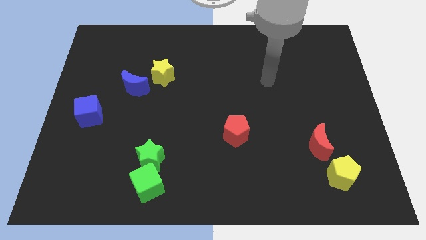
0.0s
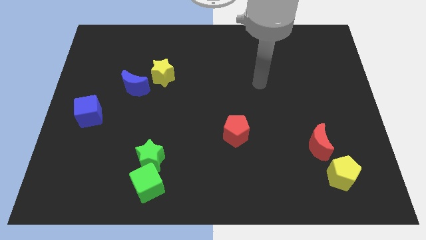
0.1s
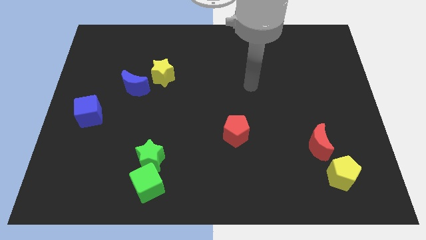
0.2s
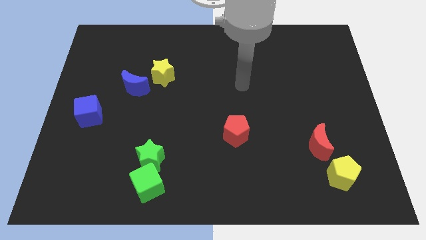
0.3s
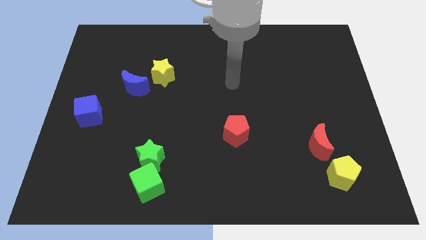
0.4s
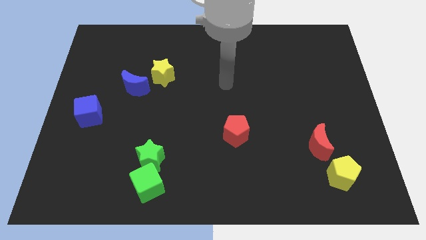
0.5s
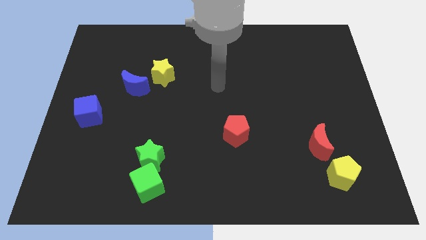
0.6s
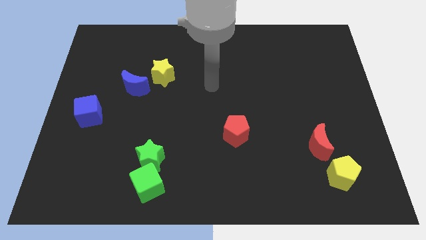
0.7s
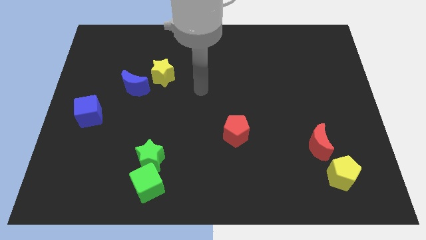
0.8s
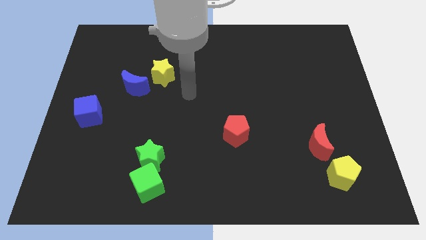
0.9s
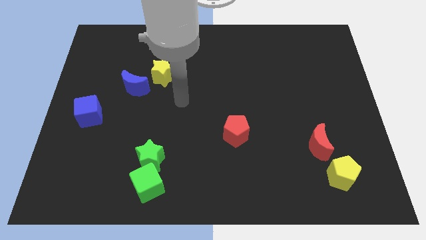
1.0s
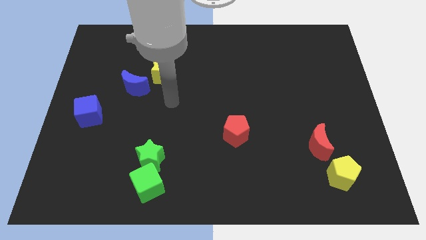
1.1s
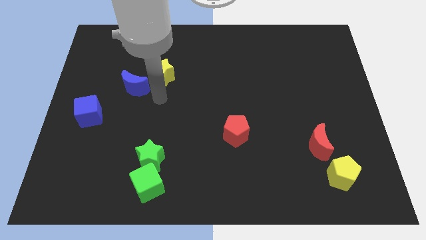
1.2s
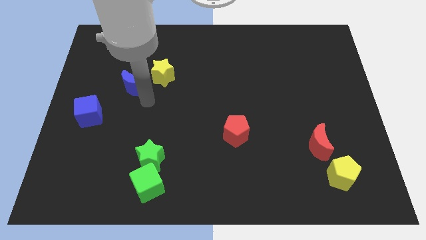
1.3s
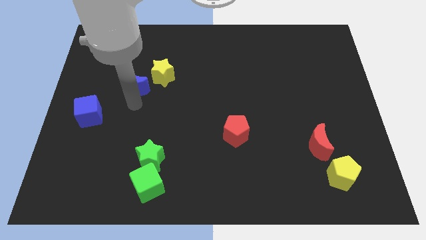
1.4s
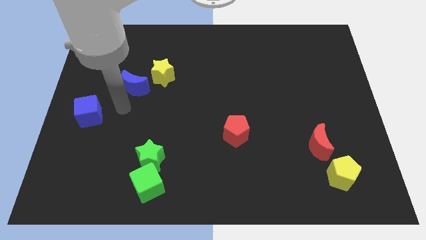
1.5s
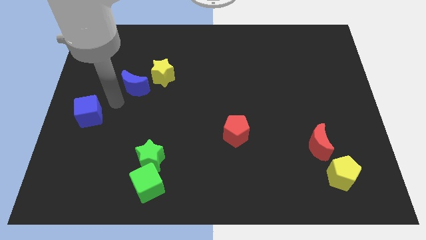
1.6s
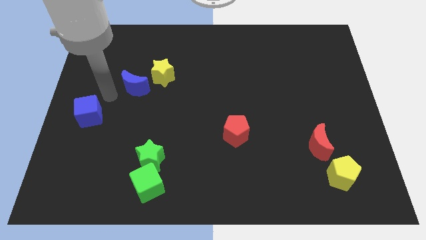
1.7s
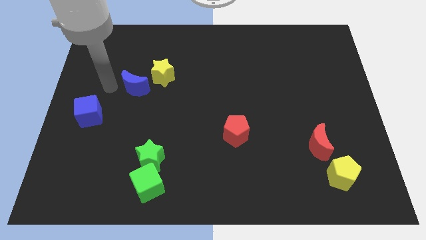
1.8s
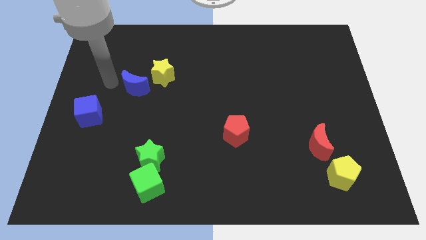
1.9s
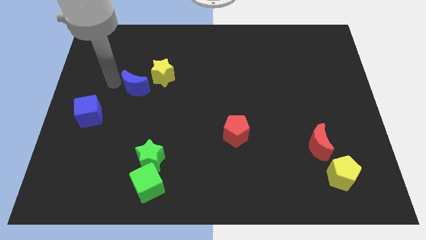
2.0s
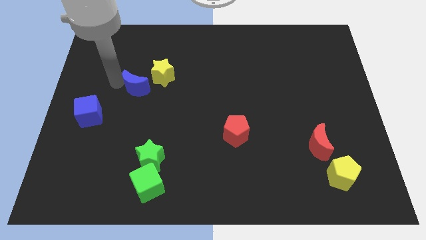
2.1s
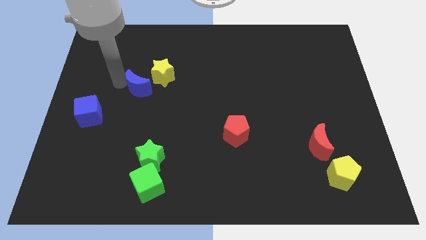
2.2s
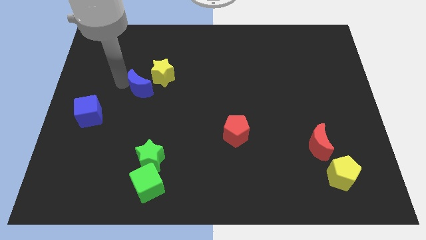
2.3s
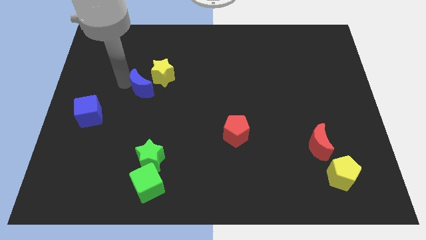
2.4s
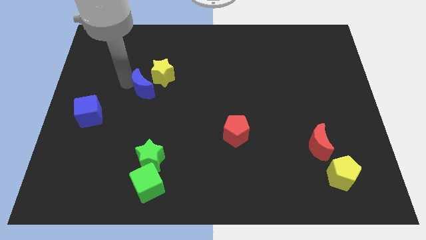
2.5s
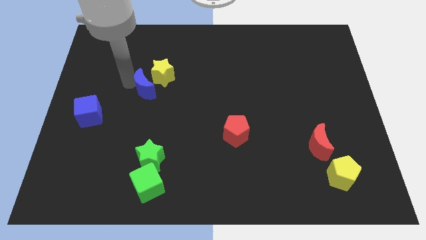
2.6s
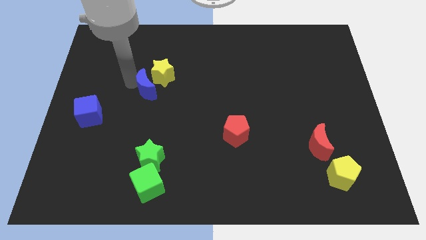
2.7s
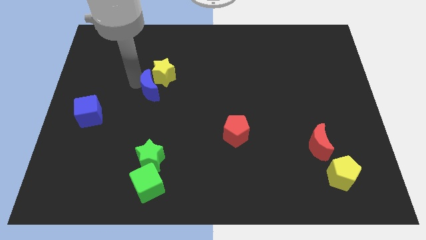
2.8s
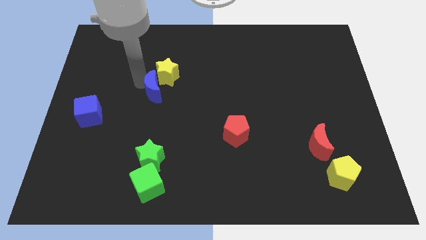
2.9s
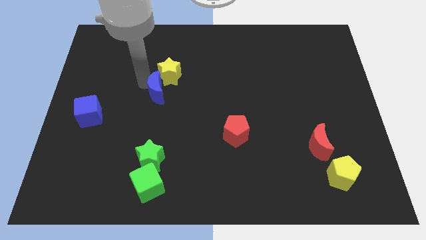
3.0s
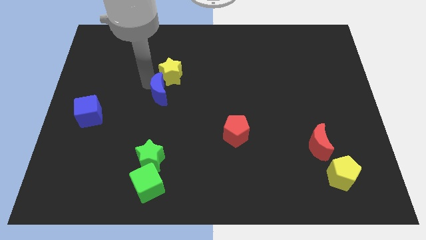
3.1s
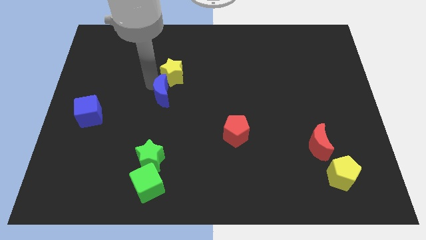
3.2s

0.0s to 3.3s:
slightly slide the blue moon right

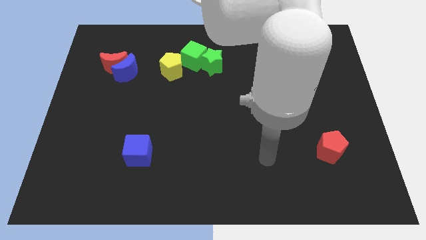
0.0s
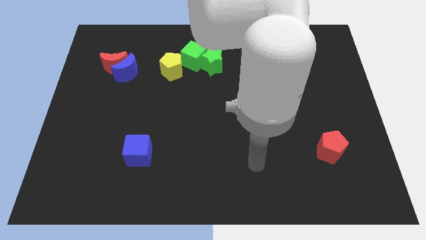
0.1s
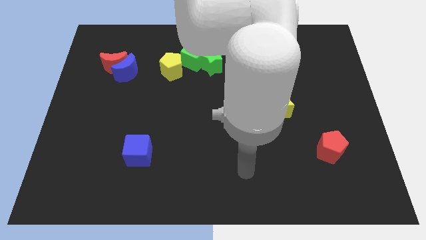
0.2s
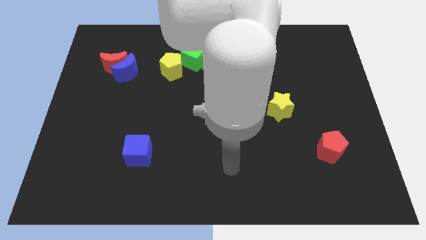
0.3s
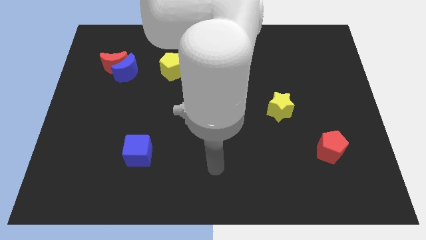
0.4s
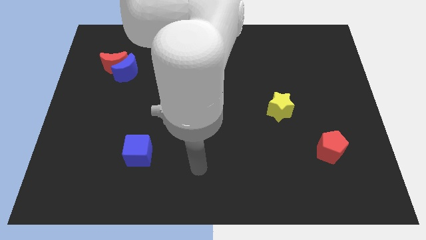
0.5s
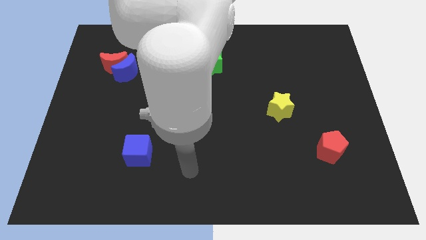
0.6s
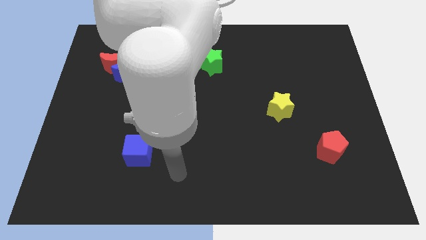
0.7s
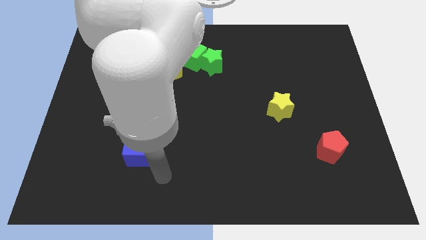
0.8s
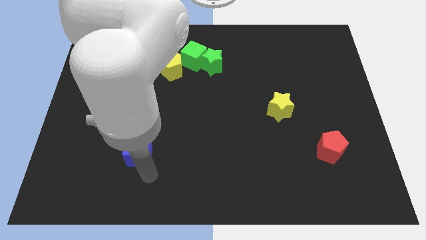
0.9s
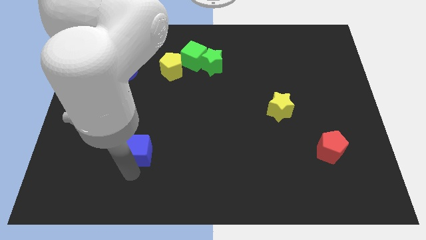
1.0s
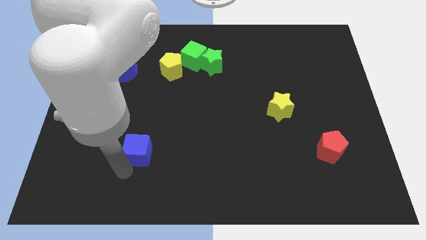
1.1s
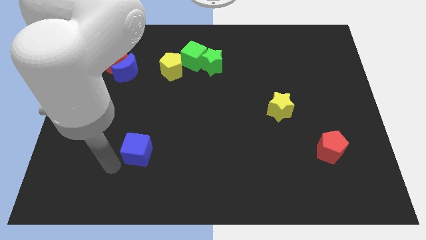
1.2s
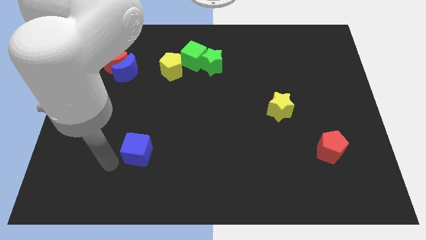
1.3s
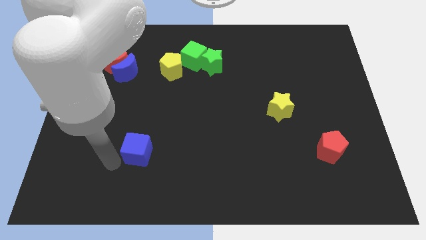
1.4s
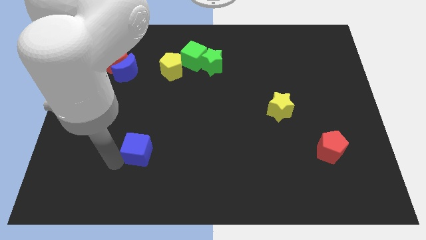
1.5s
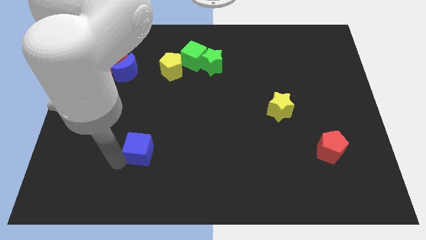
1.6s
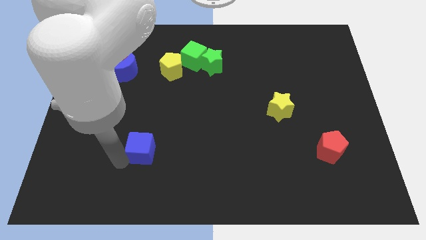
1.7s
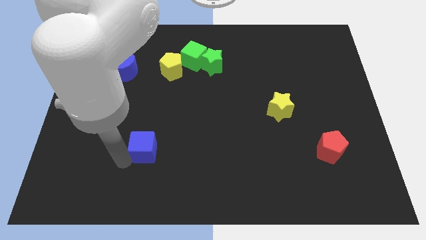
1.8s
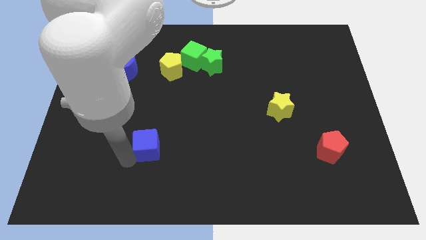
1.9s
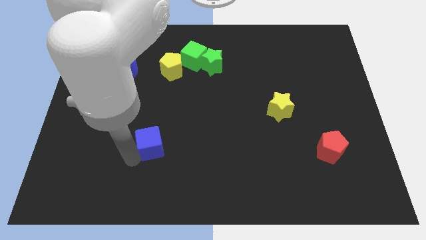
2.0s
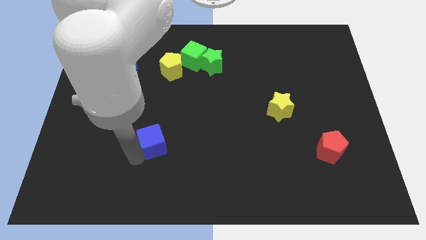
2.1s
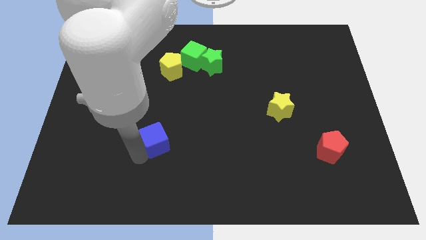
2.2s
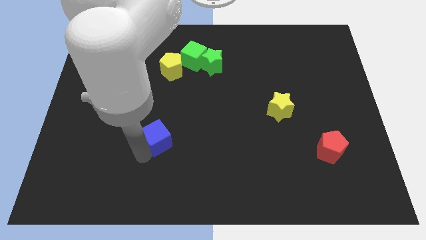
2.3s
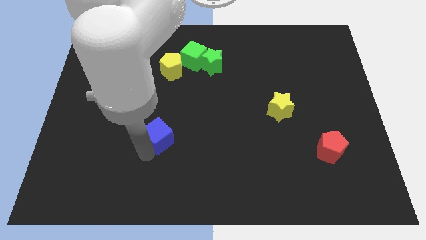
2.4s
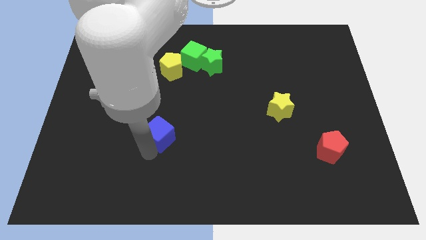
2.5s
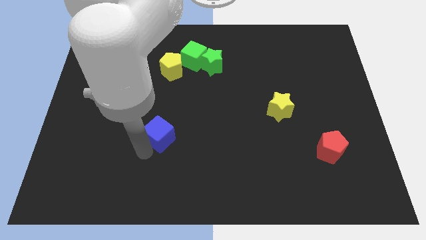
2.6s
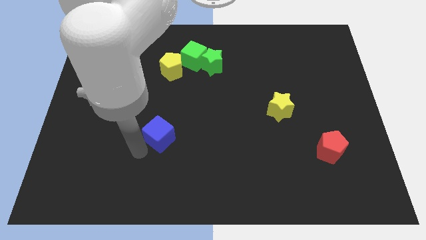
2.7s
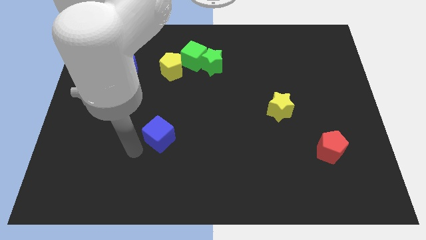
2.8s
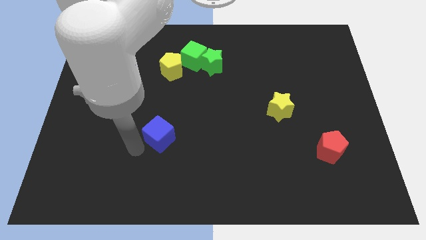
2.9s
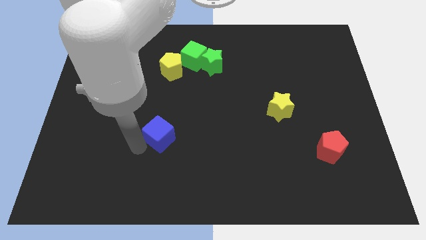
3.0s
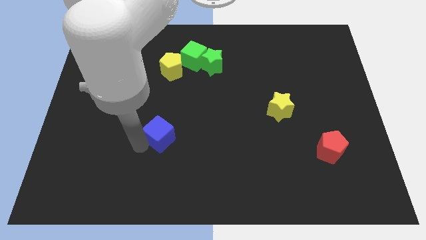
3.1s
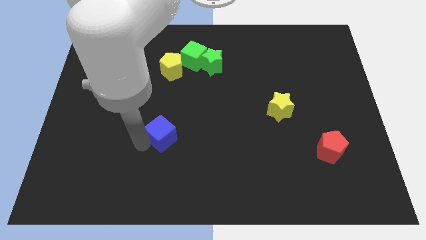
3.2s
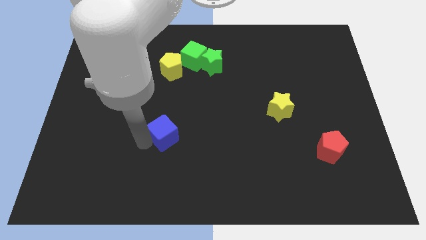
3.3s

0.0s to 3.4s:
slightly push the blue cube up and to the right

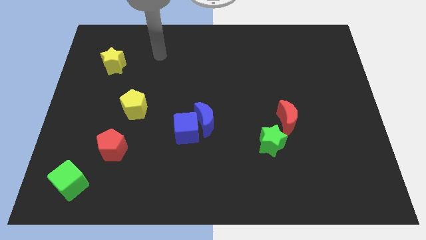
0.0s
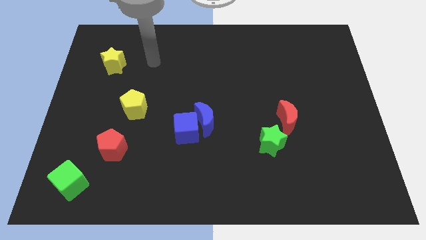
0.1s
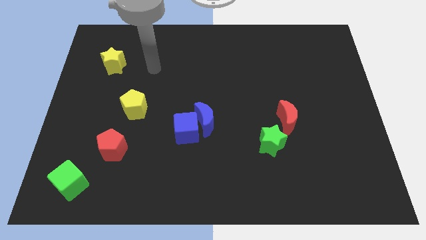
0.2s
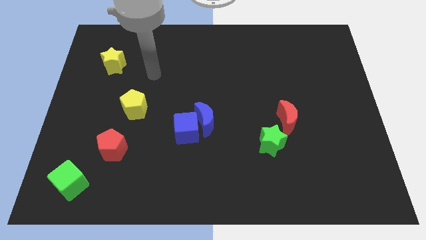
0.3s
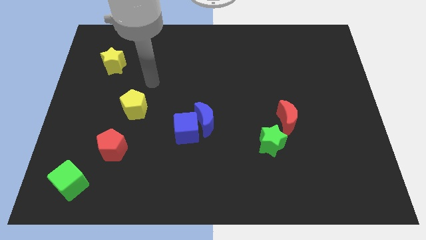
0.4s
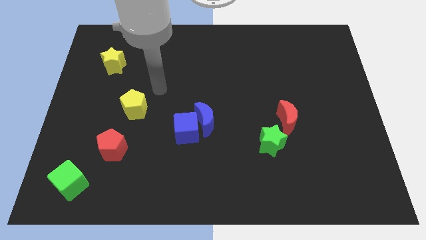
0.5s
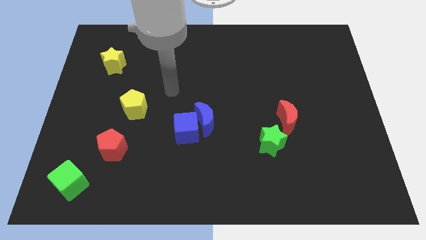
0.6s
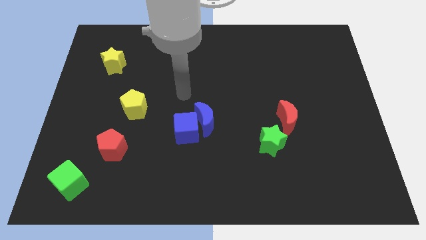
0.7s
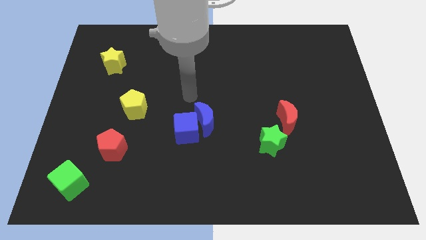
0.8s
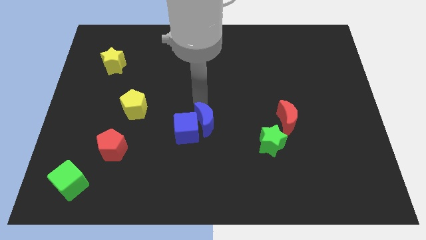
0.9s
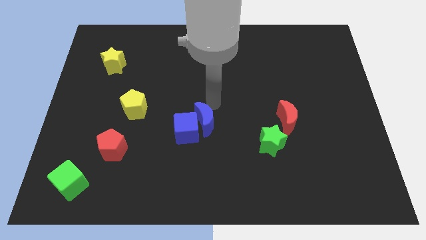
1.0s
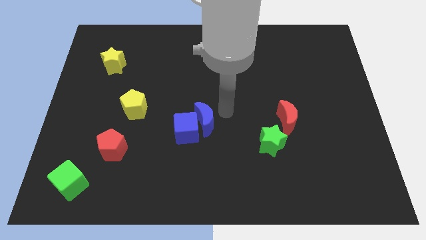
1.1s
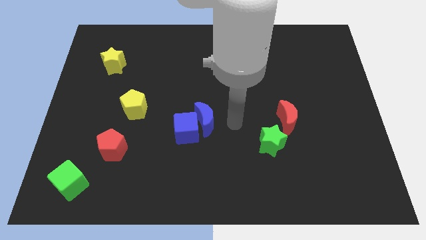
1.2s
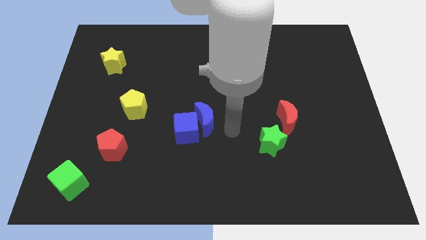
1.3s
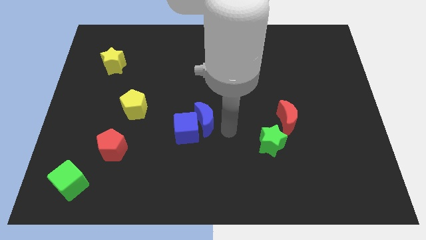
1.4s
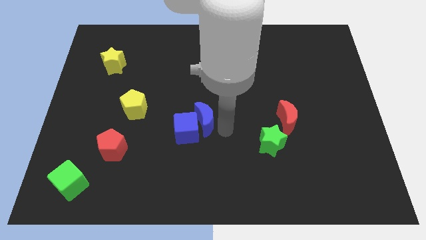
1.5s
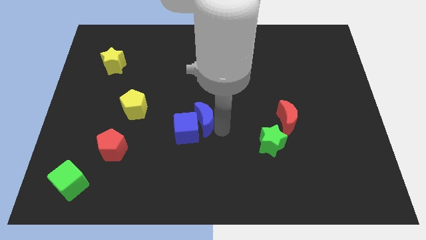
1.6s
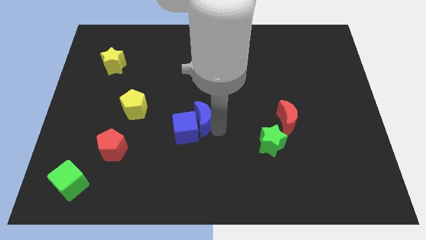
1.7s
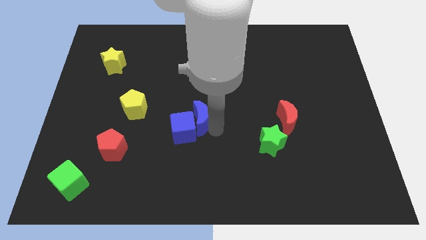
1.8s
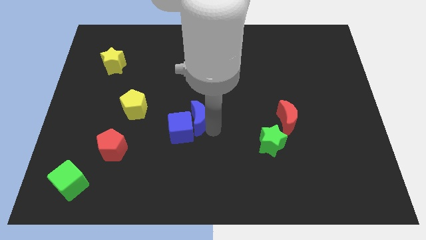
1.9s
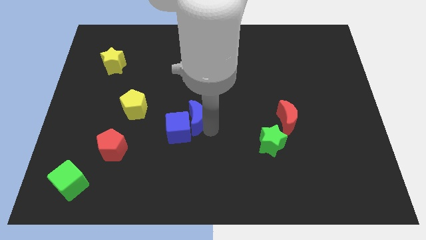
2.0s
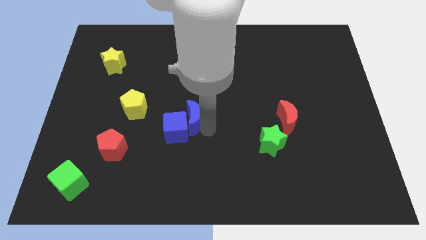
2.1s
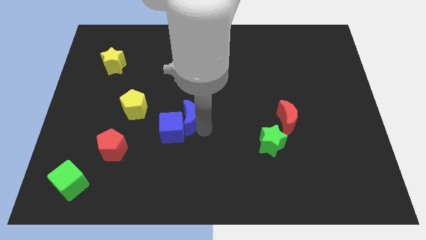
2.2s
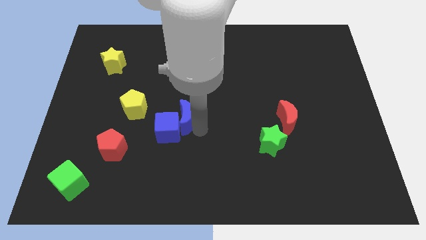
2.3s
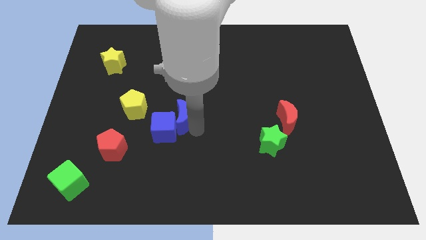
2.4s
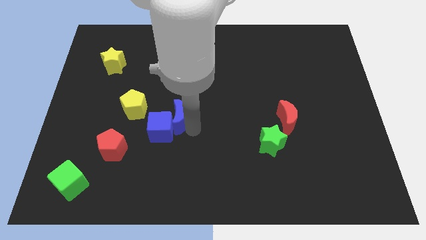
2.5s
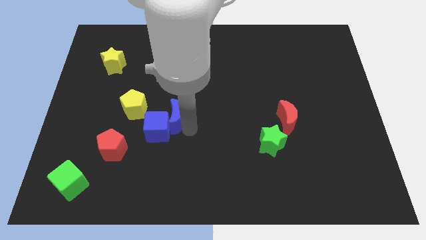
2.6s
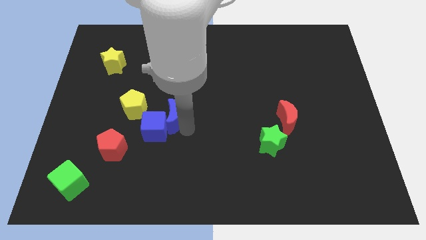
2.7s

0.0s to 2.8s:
slide the blue moon a little left
